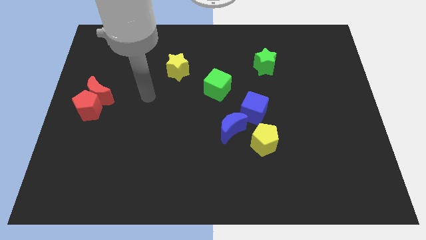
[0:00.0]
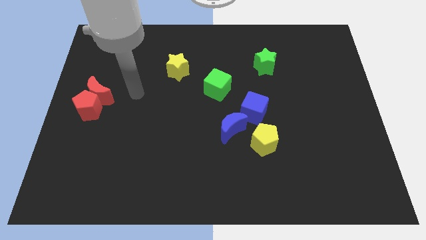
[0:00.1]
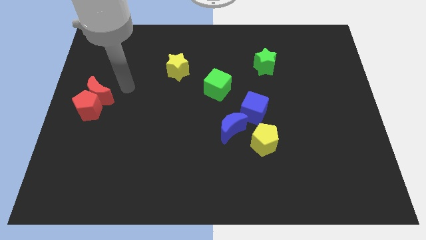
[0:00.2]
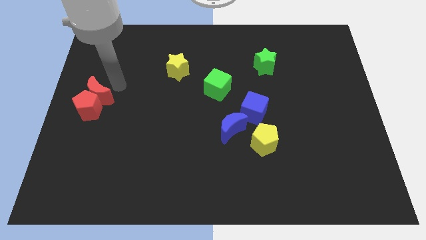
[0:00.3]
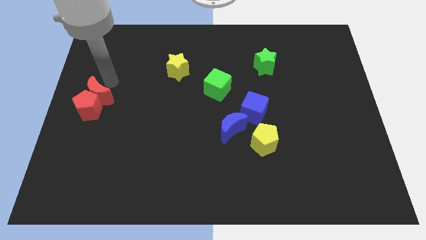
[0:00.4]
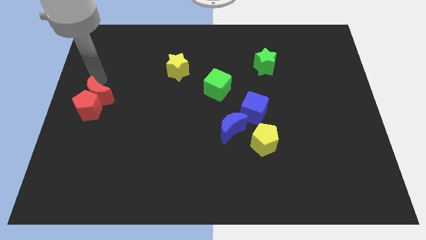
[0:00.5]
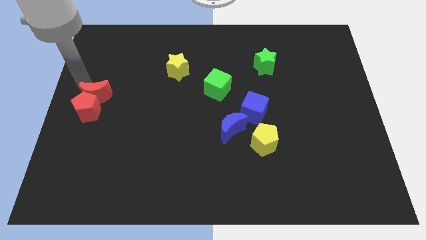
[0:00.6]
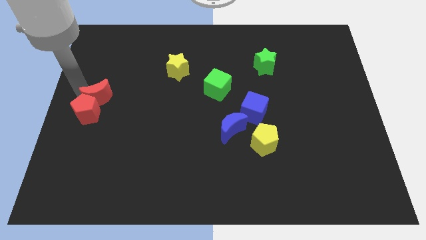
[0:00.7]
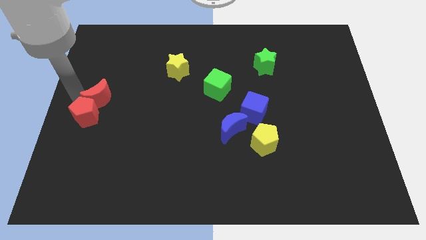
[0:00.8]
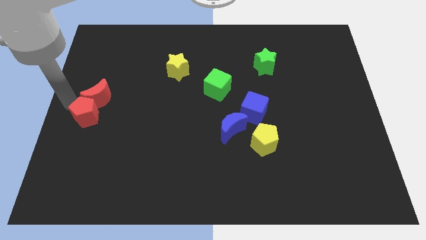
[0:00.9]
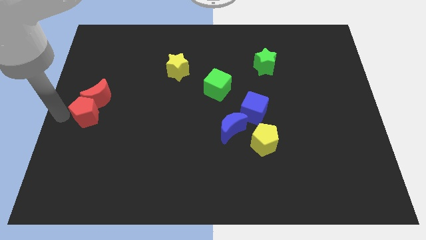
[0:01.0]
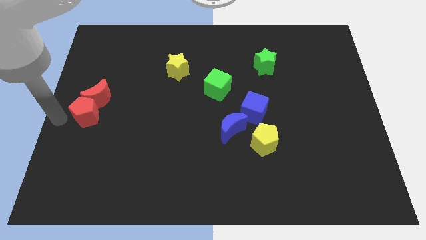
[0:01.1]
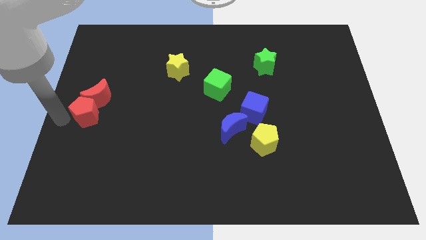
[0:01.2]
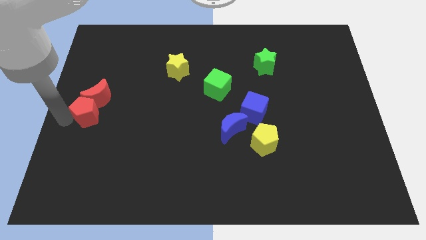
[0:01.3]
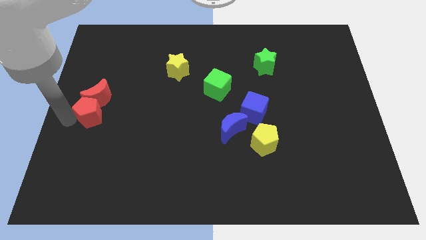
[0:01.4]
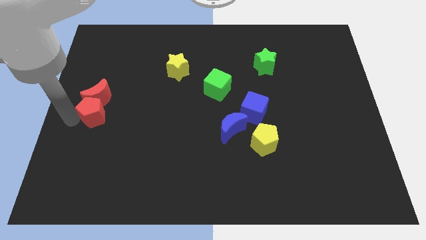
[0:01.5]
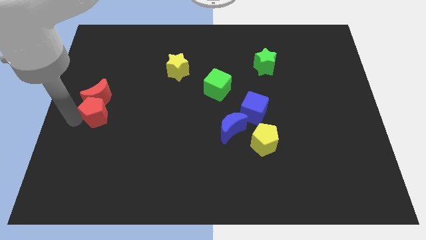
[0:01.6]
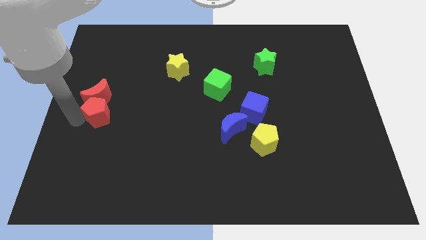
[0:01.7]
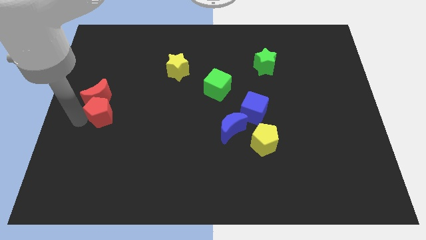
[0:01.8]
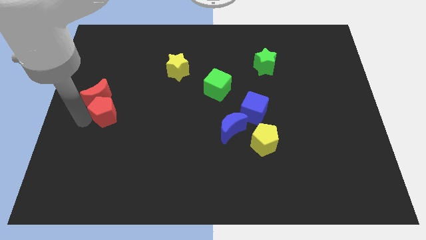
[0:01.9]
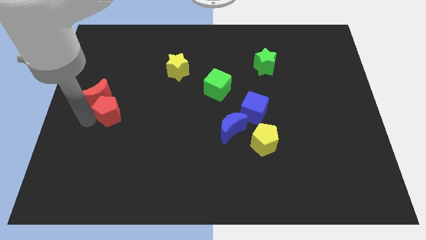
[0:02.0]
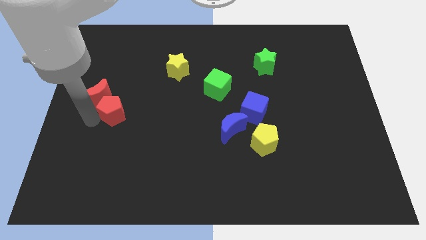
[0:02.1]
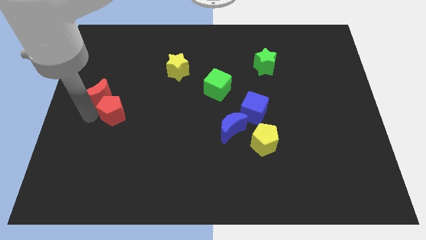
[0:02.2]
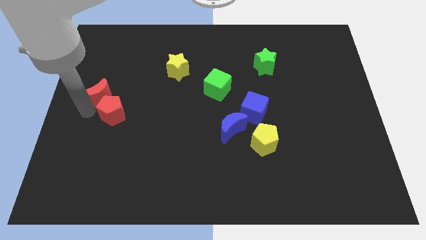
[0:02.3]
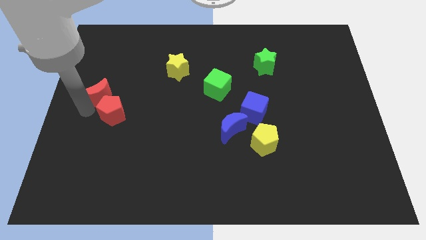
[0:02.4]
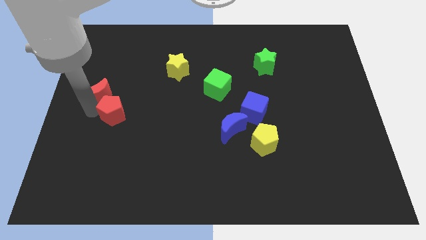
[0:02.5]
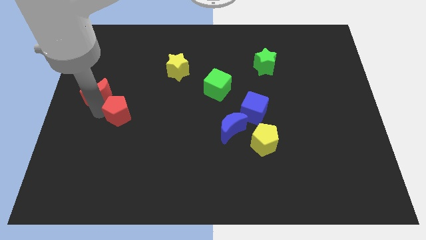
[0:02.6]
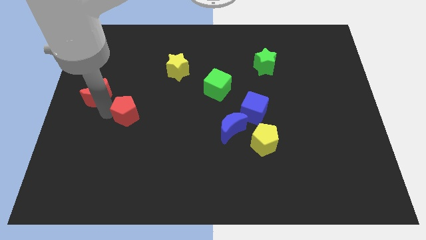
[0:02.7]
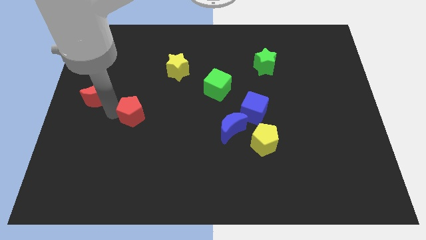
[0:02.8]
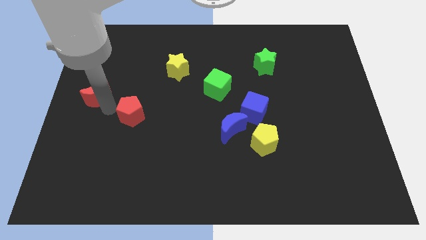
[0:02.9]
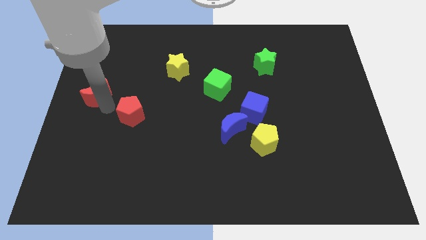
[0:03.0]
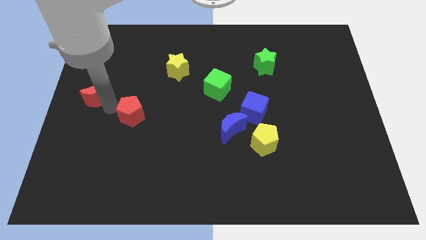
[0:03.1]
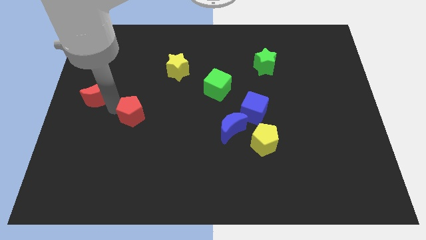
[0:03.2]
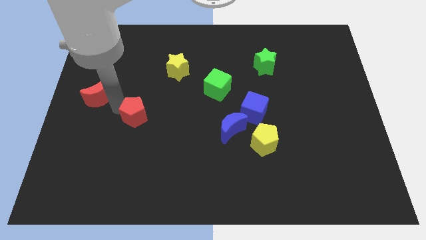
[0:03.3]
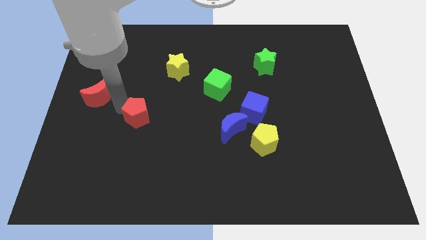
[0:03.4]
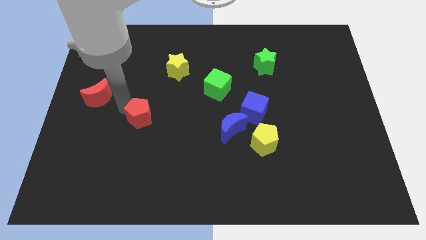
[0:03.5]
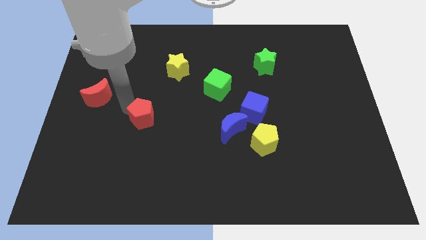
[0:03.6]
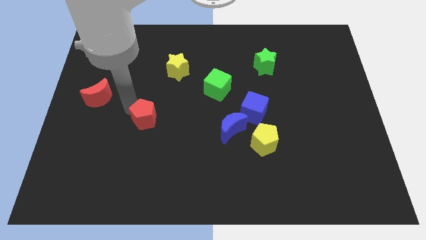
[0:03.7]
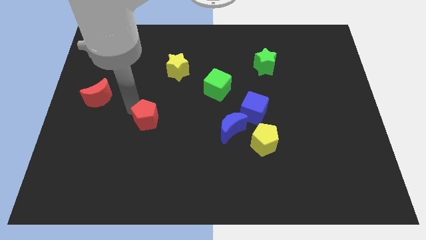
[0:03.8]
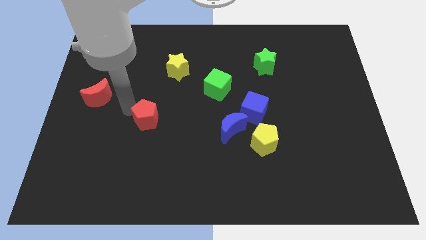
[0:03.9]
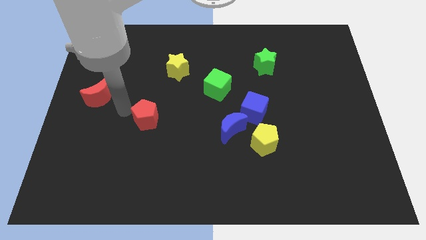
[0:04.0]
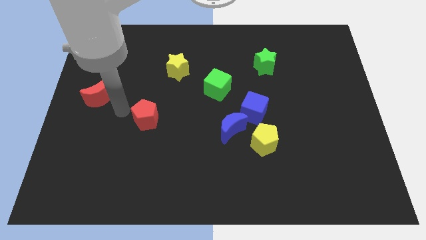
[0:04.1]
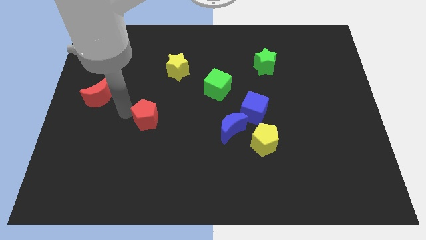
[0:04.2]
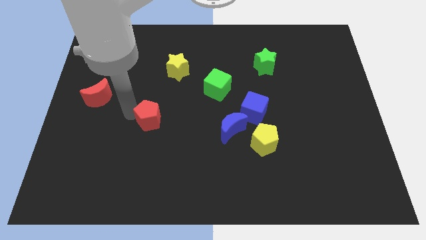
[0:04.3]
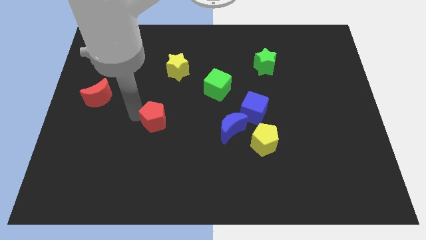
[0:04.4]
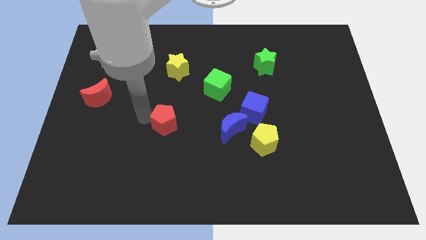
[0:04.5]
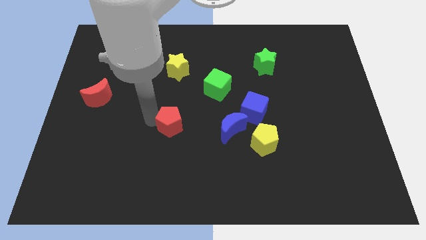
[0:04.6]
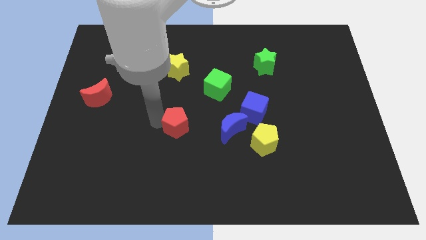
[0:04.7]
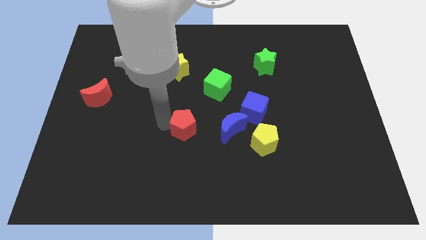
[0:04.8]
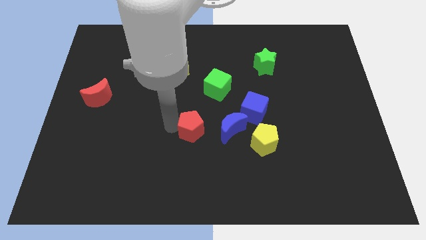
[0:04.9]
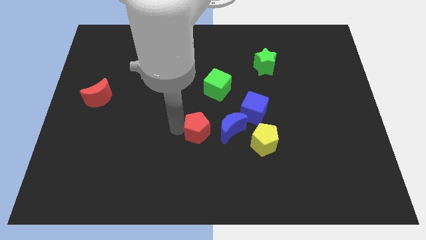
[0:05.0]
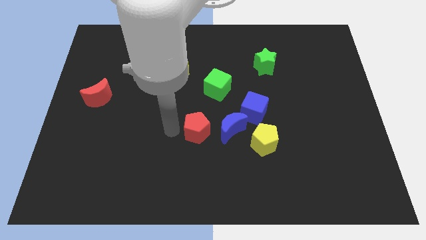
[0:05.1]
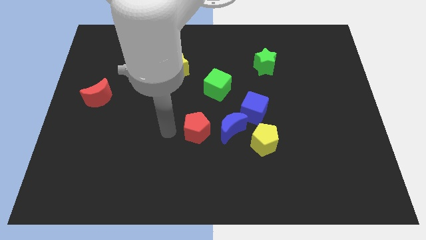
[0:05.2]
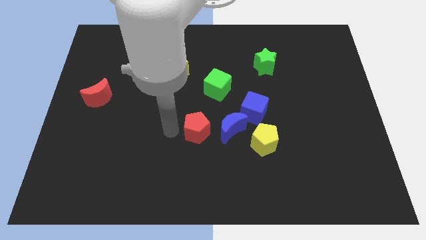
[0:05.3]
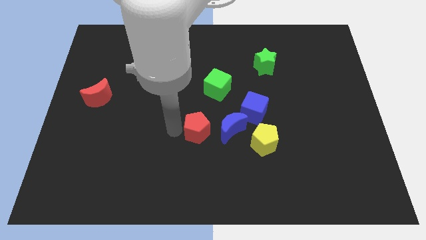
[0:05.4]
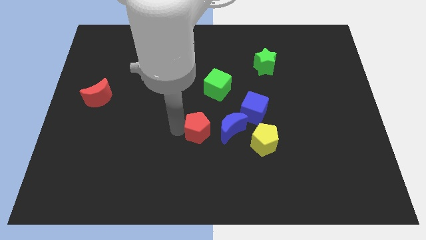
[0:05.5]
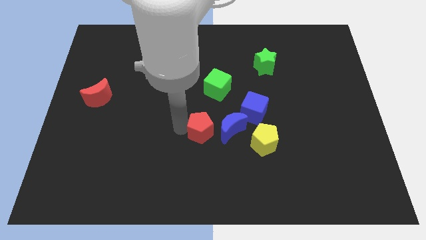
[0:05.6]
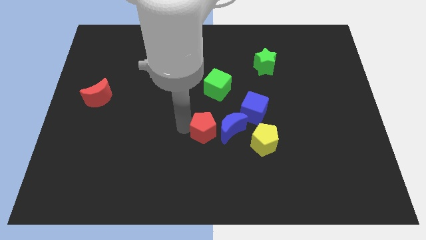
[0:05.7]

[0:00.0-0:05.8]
move the red pentagon to the blue moon
